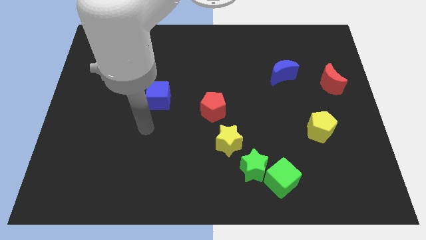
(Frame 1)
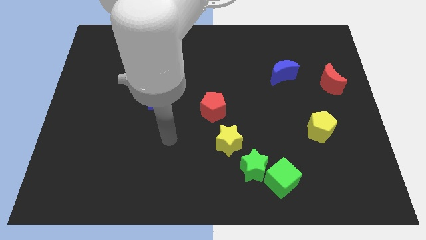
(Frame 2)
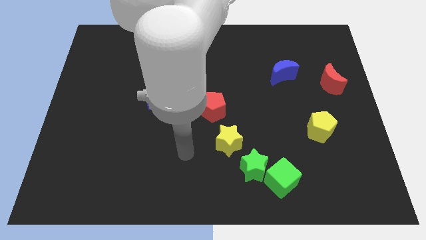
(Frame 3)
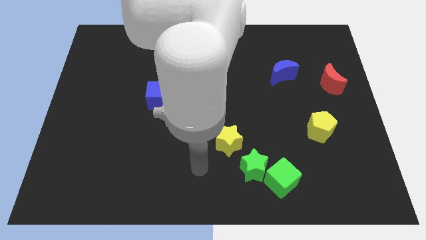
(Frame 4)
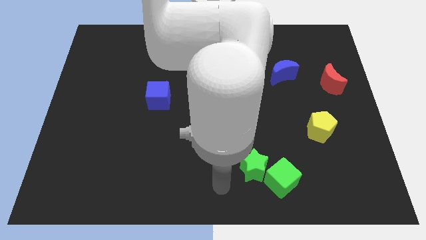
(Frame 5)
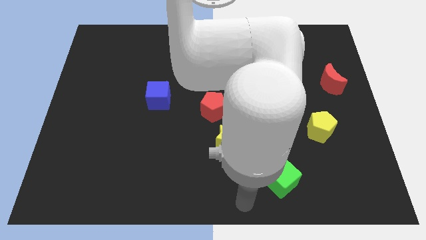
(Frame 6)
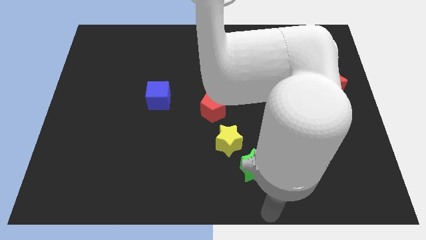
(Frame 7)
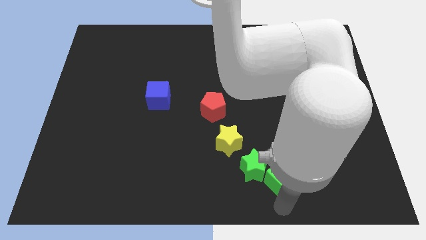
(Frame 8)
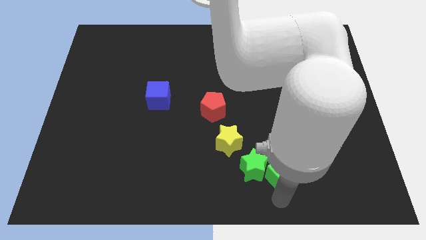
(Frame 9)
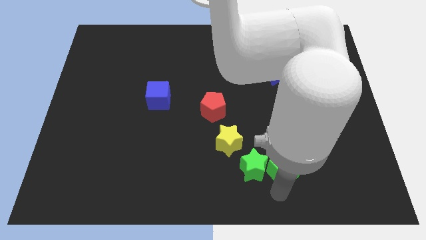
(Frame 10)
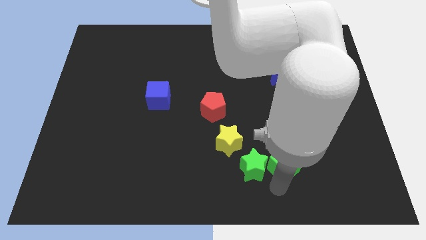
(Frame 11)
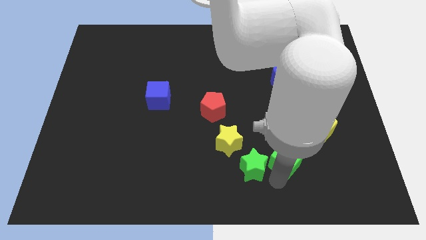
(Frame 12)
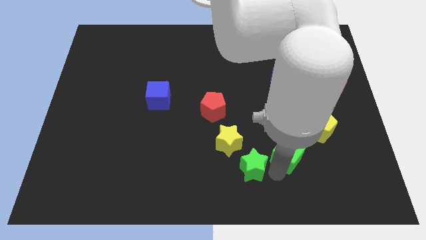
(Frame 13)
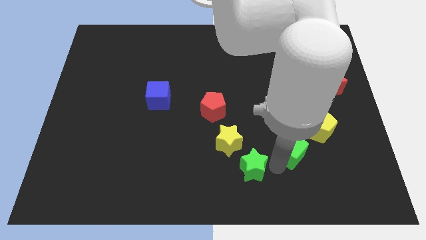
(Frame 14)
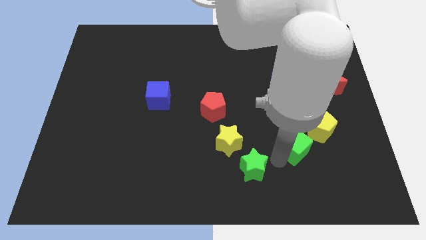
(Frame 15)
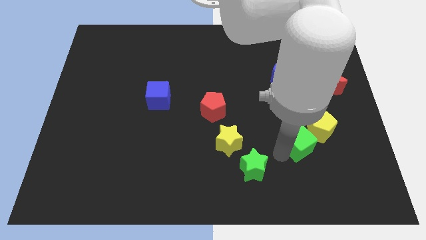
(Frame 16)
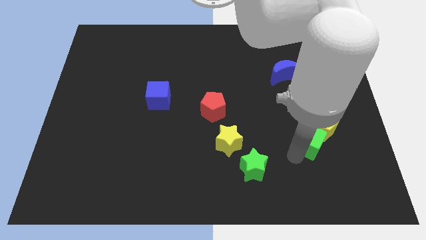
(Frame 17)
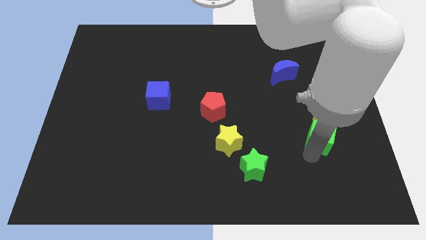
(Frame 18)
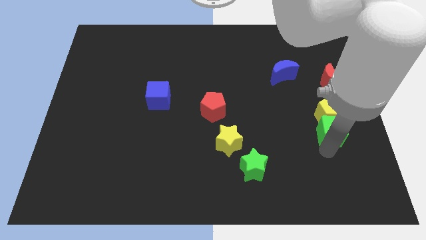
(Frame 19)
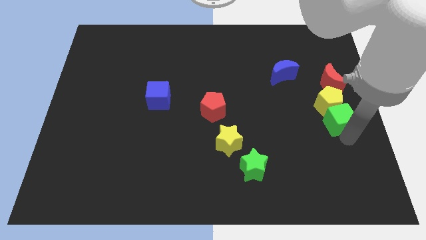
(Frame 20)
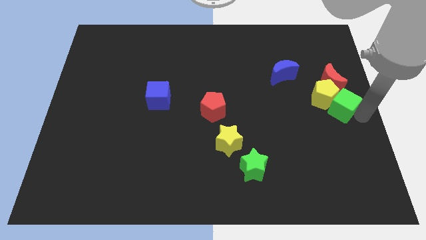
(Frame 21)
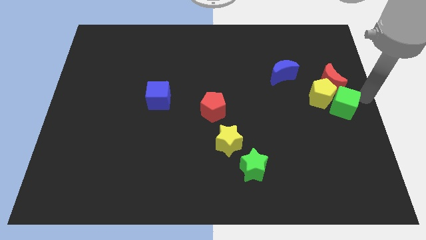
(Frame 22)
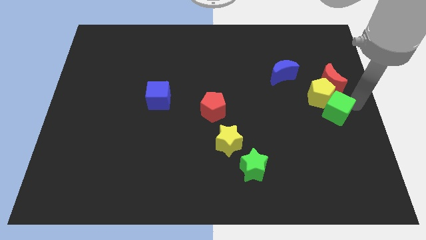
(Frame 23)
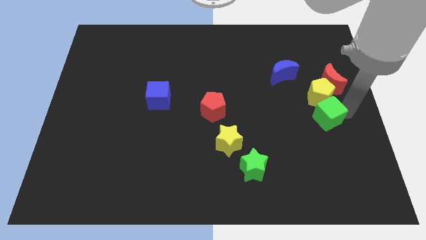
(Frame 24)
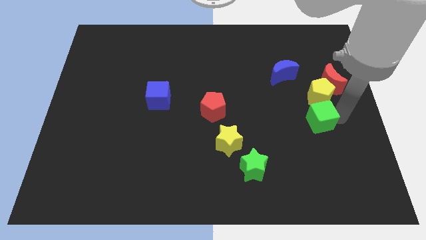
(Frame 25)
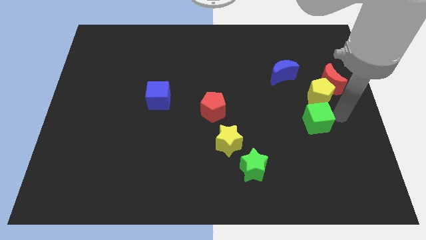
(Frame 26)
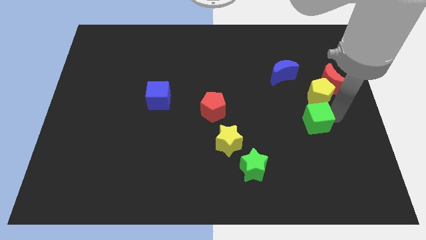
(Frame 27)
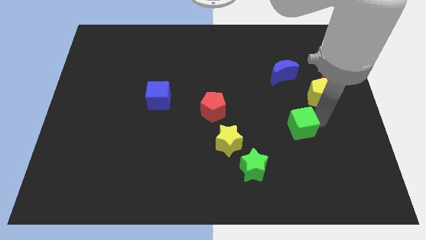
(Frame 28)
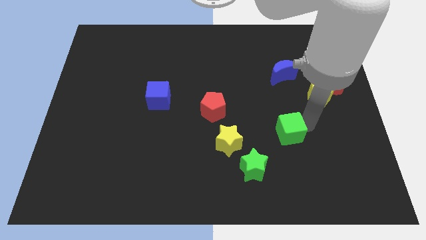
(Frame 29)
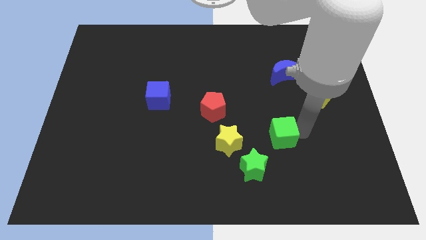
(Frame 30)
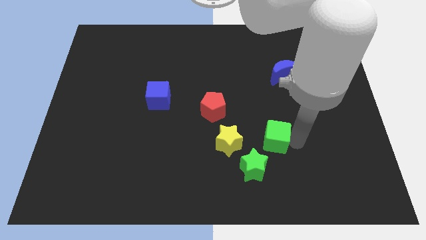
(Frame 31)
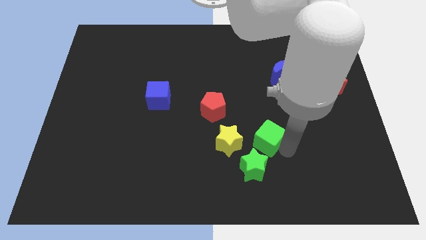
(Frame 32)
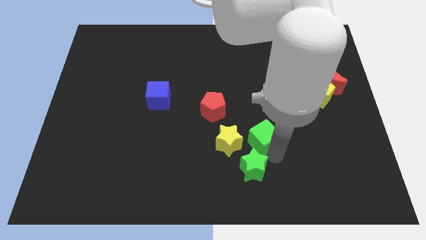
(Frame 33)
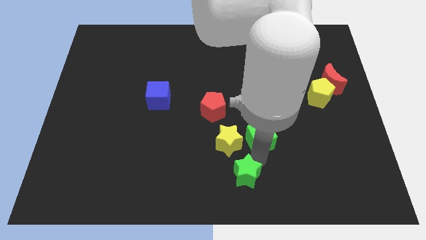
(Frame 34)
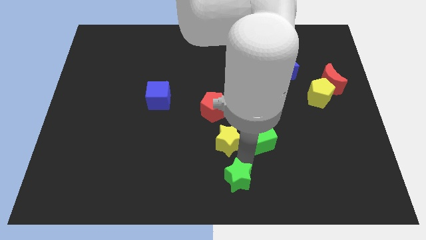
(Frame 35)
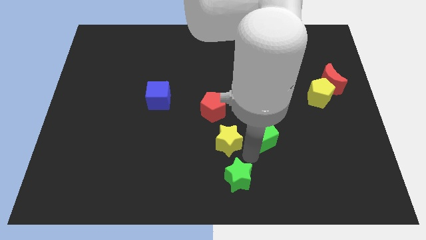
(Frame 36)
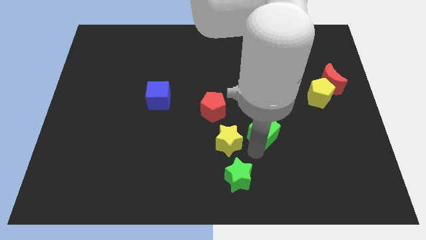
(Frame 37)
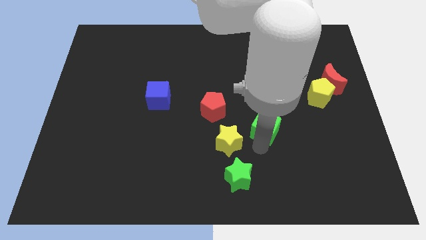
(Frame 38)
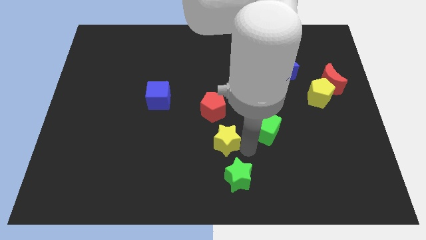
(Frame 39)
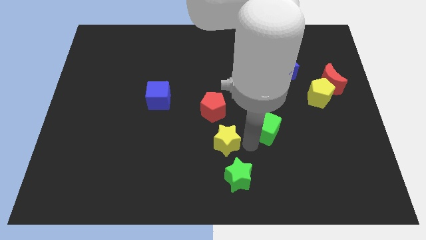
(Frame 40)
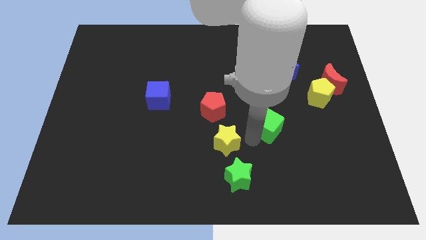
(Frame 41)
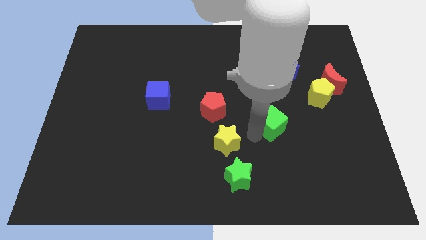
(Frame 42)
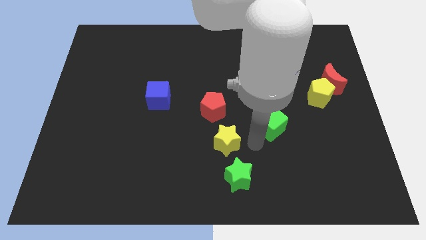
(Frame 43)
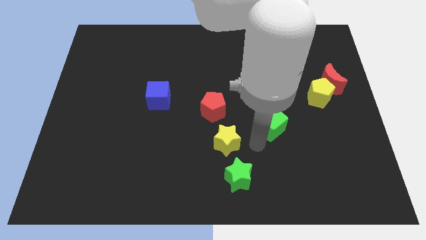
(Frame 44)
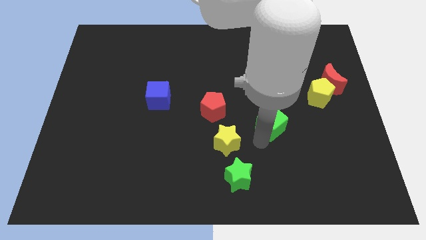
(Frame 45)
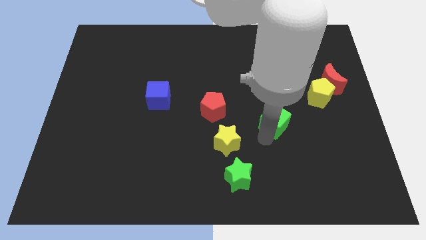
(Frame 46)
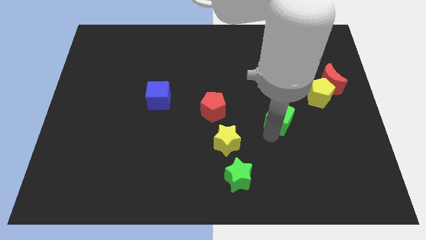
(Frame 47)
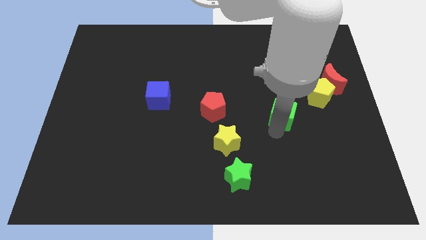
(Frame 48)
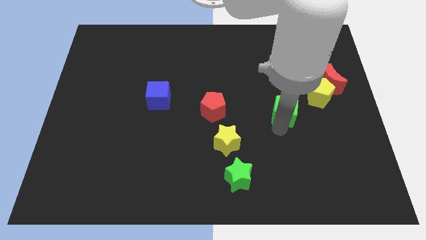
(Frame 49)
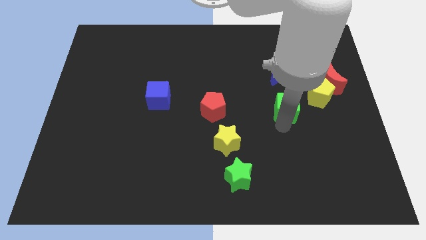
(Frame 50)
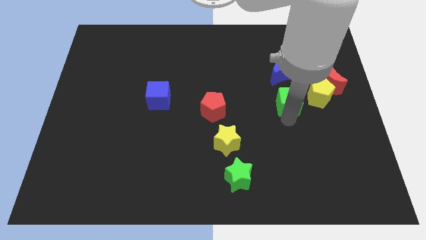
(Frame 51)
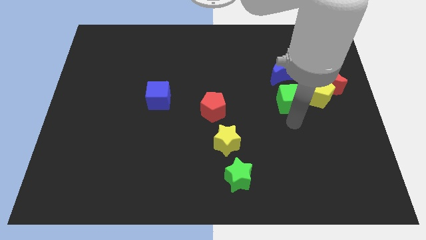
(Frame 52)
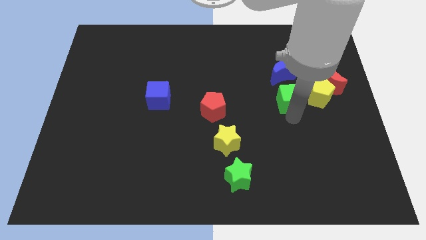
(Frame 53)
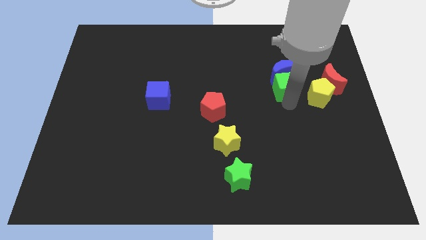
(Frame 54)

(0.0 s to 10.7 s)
push the green cube next to the blue moon

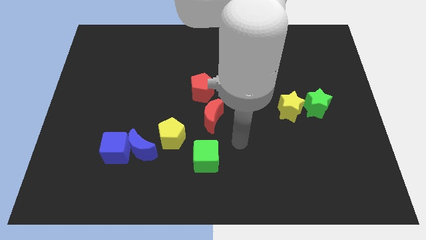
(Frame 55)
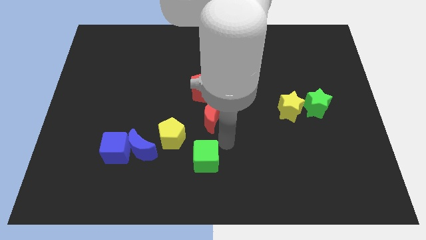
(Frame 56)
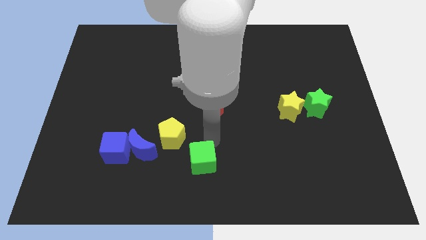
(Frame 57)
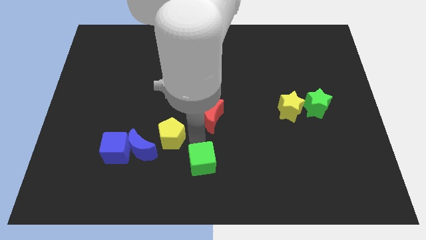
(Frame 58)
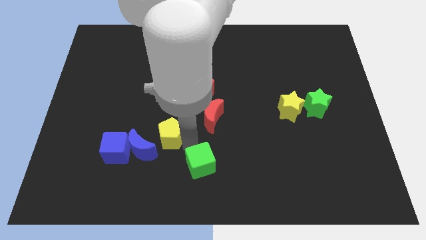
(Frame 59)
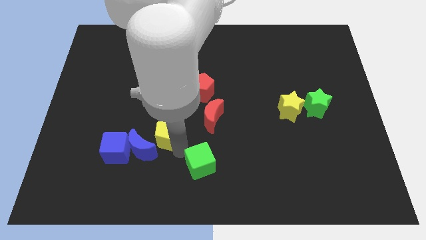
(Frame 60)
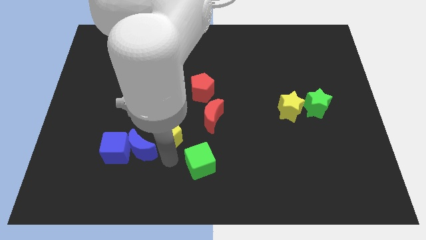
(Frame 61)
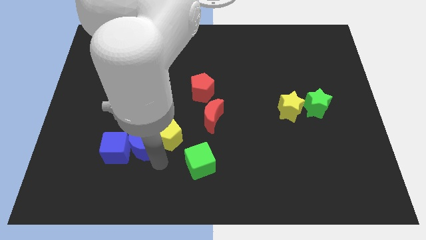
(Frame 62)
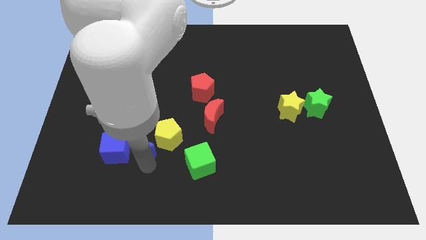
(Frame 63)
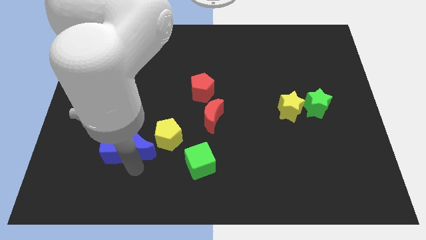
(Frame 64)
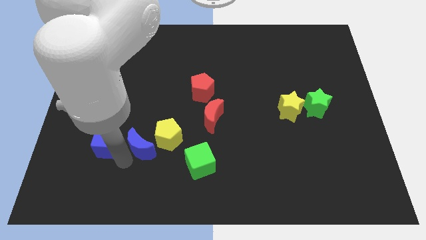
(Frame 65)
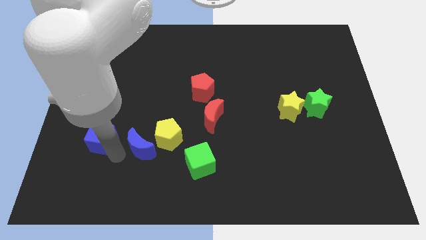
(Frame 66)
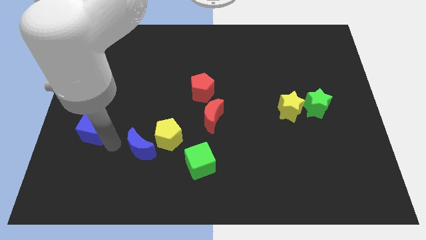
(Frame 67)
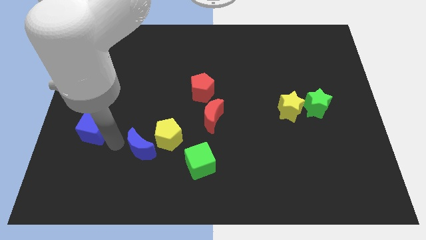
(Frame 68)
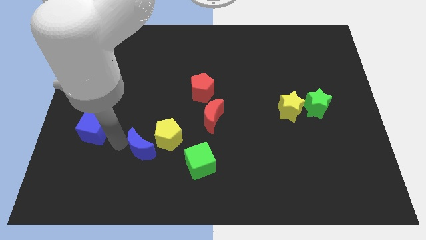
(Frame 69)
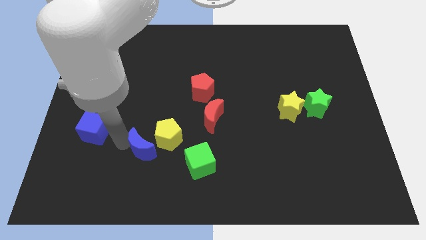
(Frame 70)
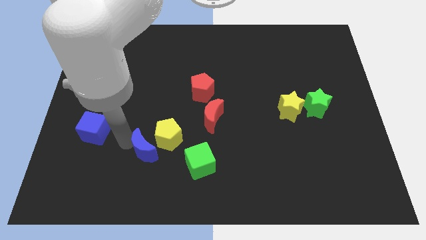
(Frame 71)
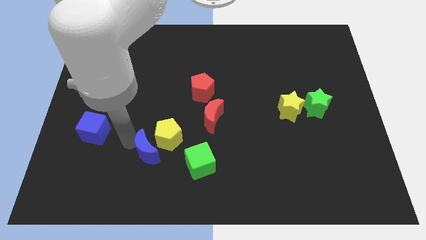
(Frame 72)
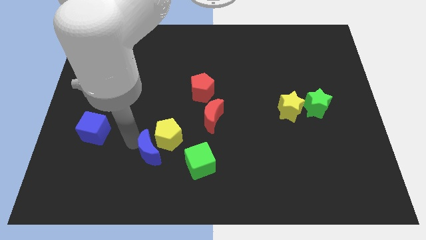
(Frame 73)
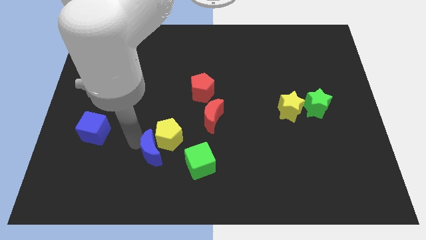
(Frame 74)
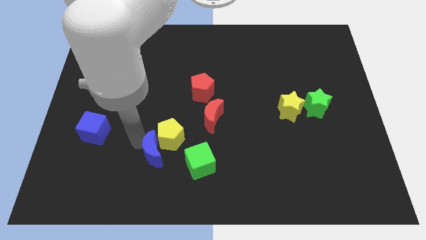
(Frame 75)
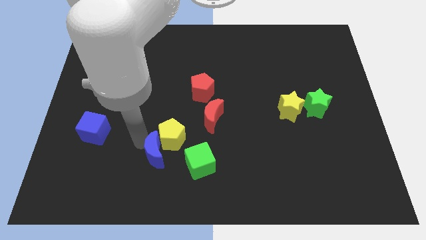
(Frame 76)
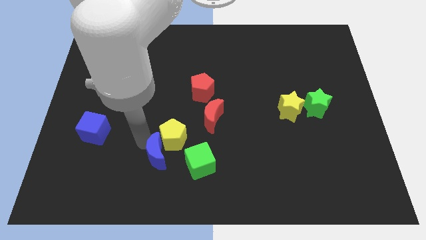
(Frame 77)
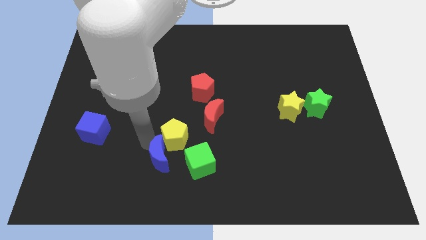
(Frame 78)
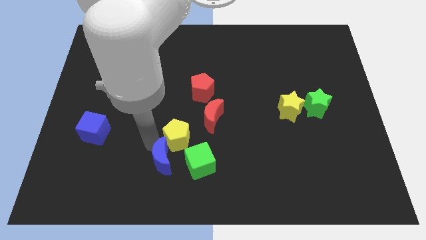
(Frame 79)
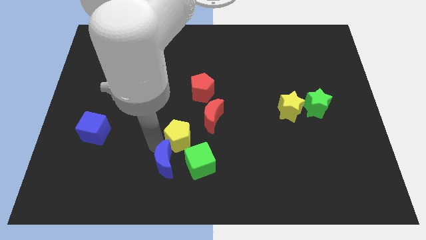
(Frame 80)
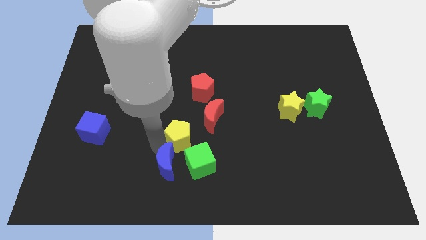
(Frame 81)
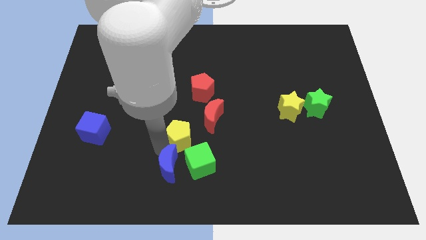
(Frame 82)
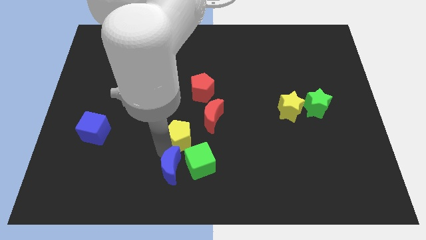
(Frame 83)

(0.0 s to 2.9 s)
push the blue moon close to the green cube
